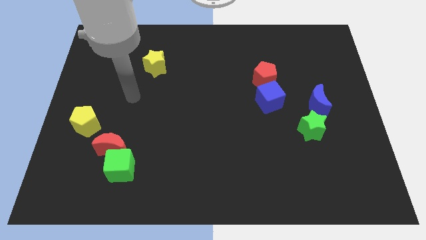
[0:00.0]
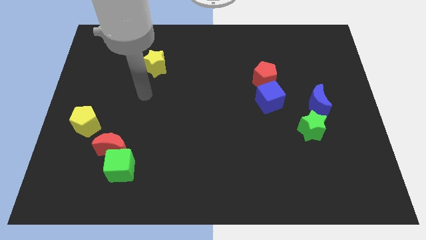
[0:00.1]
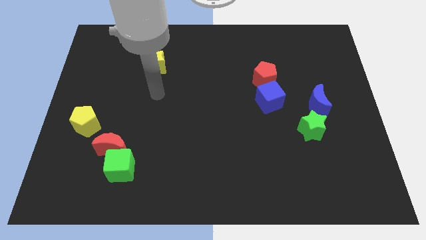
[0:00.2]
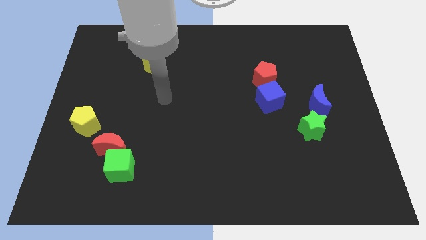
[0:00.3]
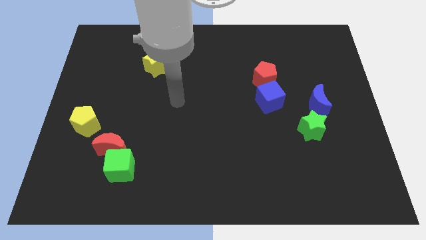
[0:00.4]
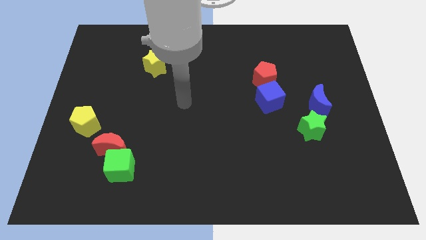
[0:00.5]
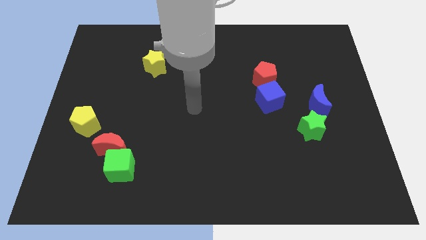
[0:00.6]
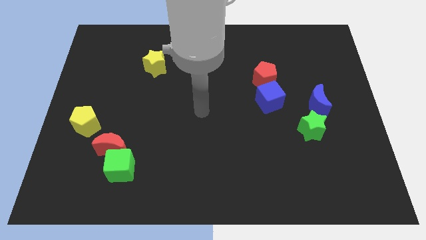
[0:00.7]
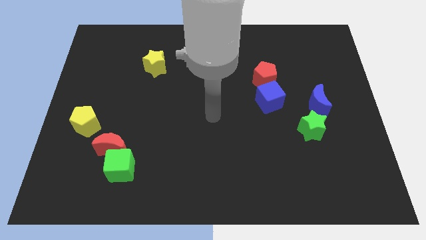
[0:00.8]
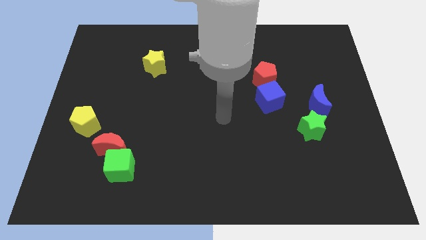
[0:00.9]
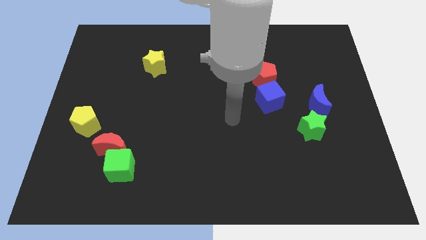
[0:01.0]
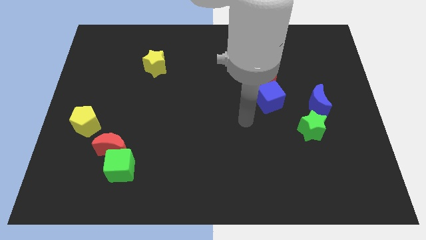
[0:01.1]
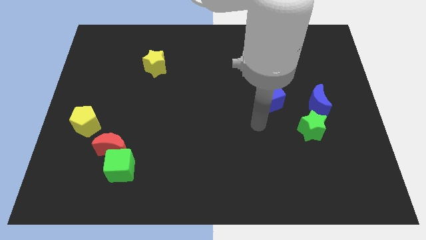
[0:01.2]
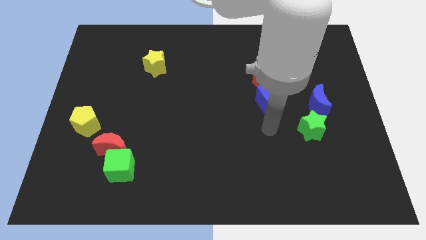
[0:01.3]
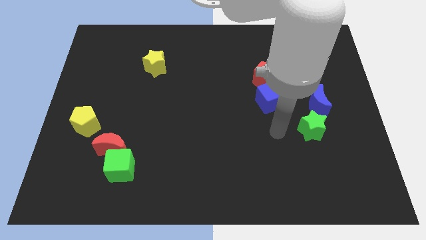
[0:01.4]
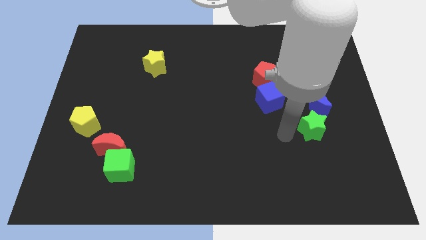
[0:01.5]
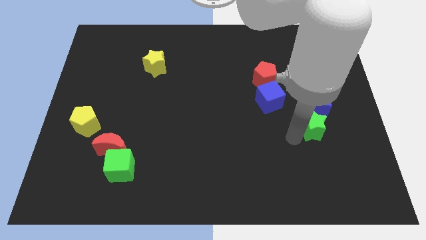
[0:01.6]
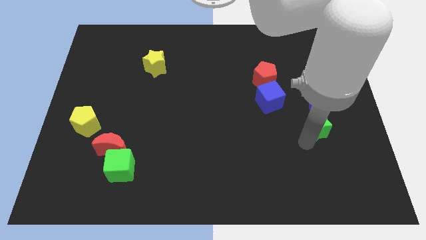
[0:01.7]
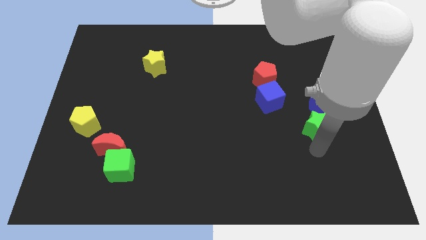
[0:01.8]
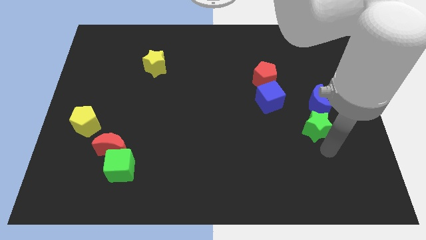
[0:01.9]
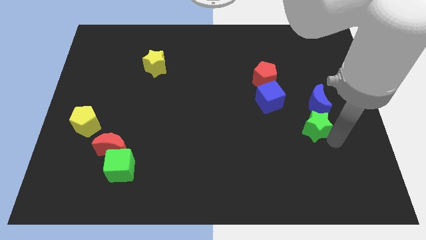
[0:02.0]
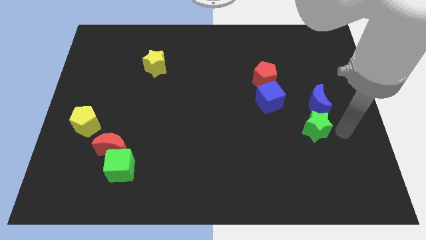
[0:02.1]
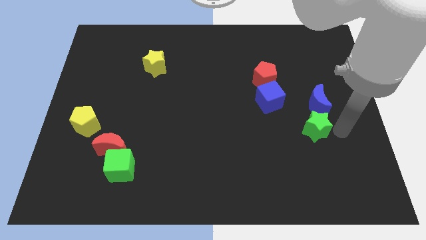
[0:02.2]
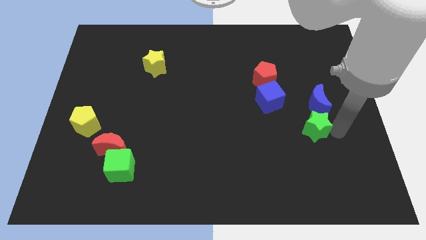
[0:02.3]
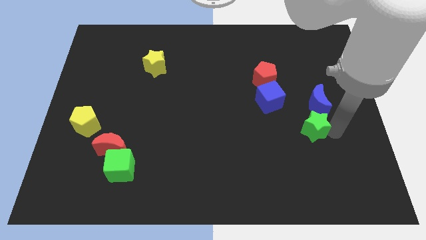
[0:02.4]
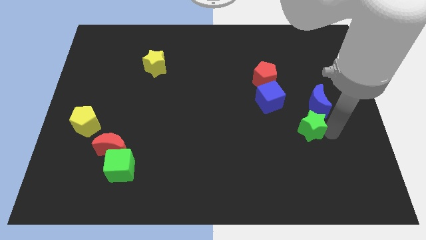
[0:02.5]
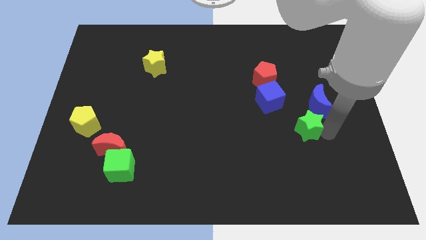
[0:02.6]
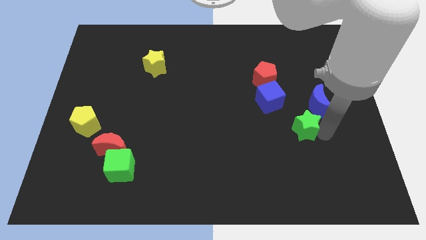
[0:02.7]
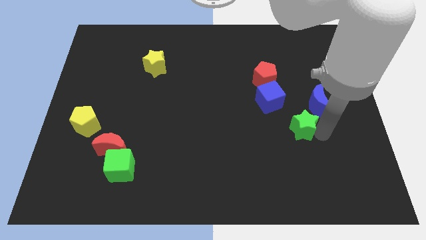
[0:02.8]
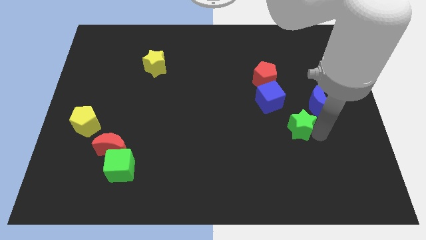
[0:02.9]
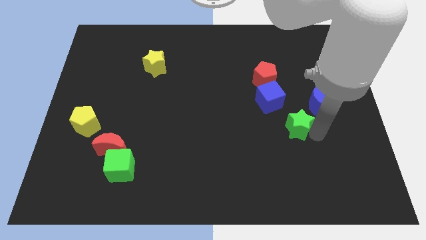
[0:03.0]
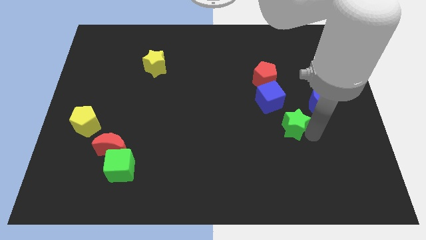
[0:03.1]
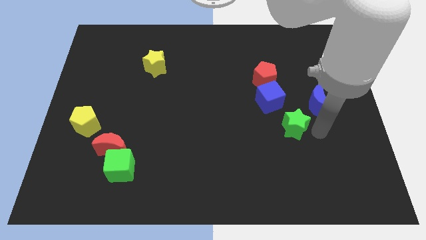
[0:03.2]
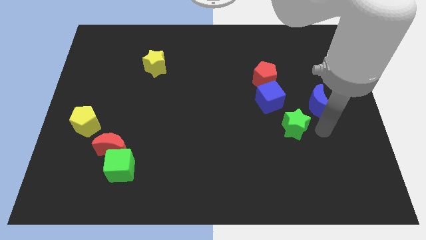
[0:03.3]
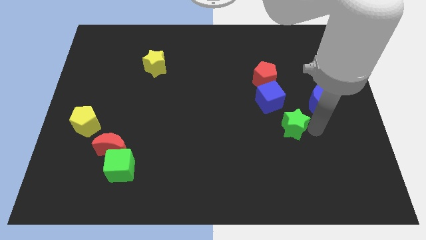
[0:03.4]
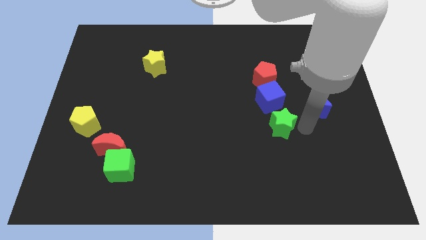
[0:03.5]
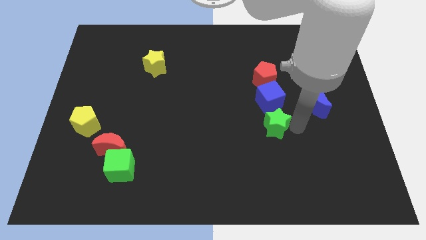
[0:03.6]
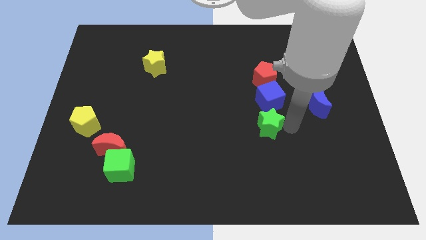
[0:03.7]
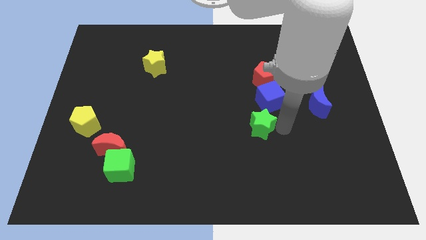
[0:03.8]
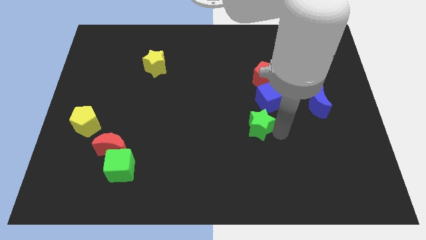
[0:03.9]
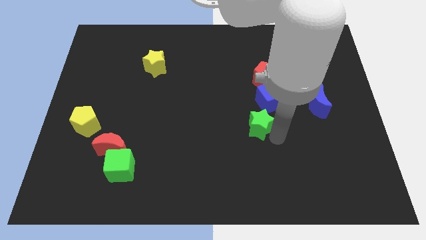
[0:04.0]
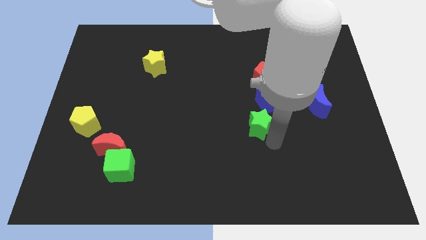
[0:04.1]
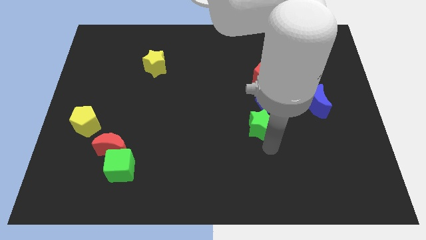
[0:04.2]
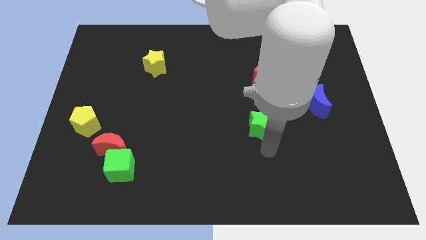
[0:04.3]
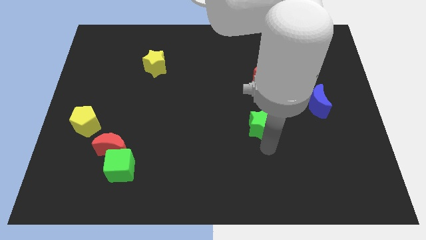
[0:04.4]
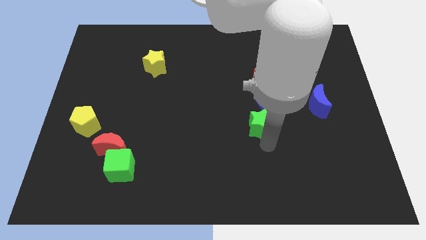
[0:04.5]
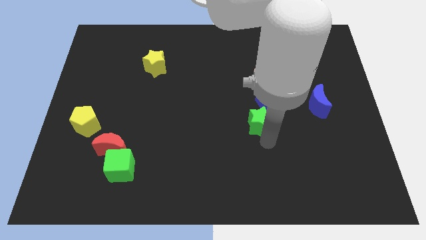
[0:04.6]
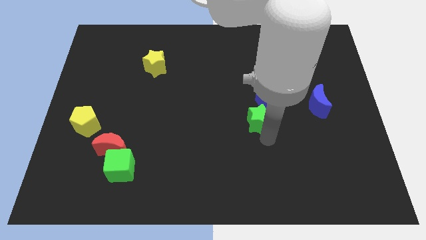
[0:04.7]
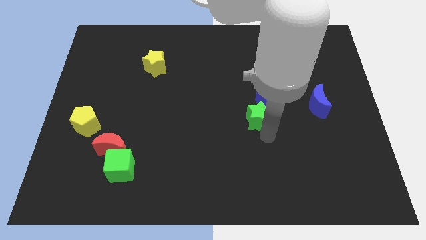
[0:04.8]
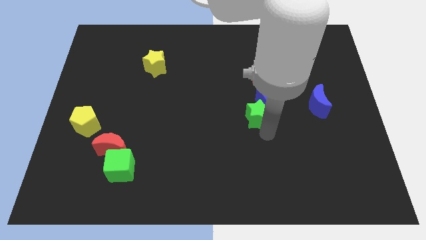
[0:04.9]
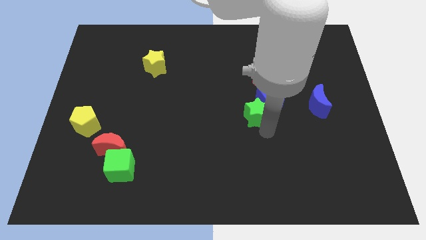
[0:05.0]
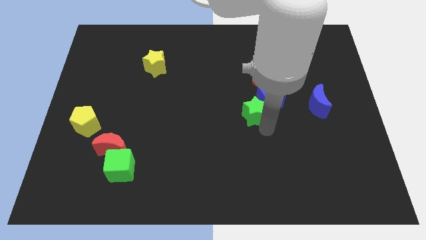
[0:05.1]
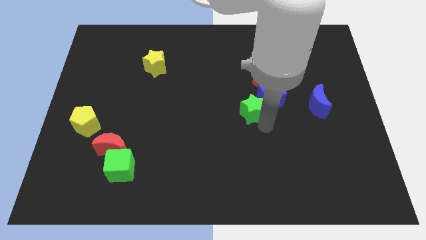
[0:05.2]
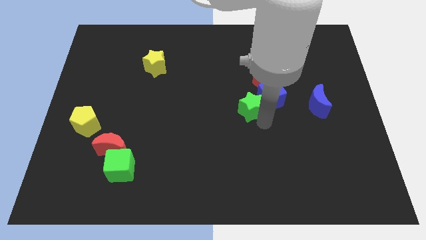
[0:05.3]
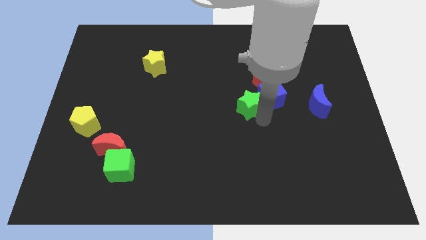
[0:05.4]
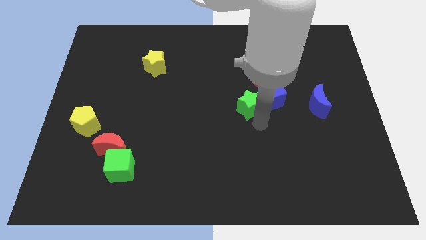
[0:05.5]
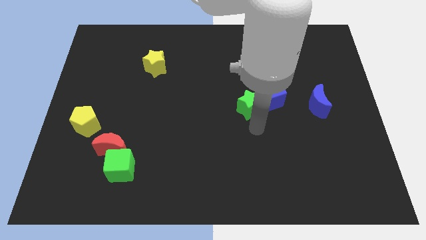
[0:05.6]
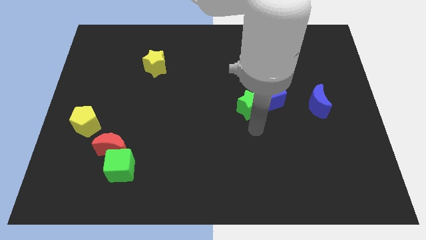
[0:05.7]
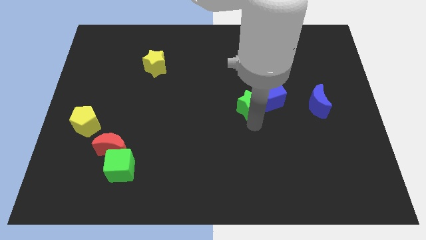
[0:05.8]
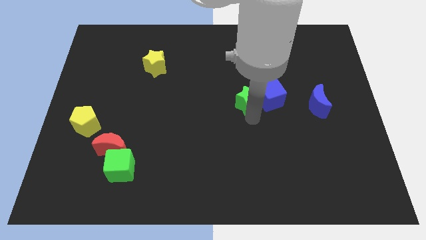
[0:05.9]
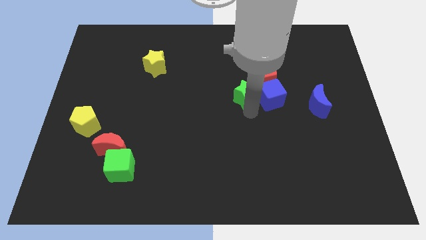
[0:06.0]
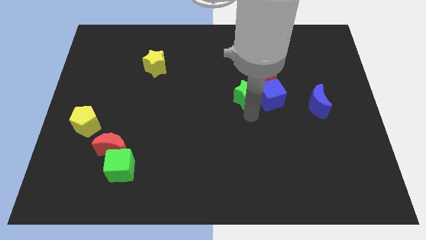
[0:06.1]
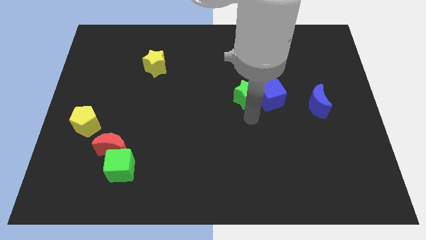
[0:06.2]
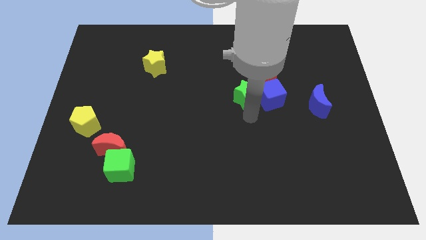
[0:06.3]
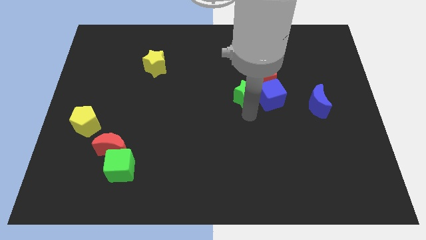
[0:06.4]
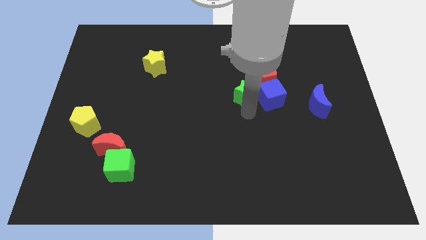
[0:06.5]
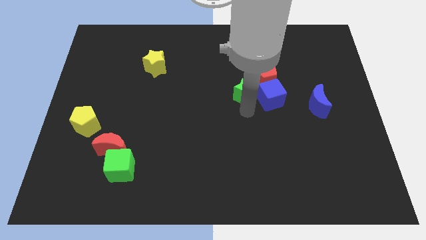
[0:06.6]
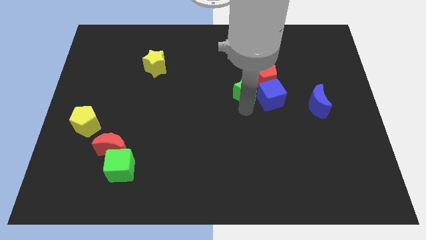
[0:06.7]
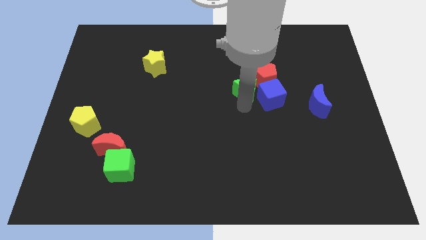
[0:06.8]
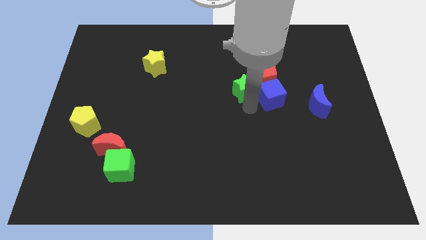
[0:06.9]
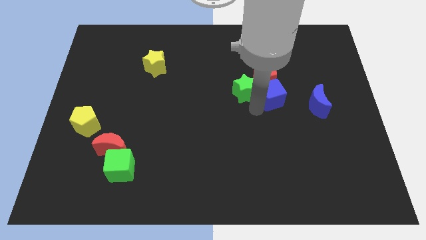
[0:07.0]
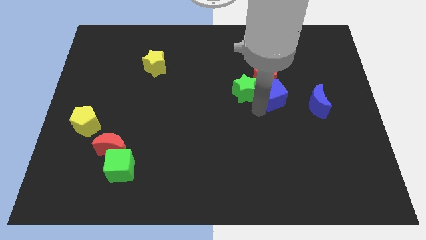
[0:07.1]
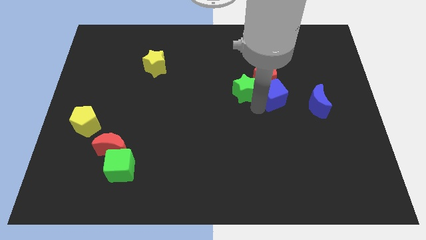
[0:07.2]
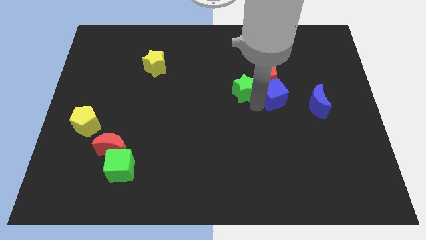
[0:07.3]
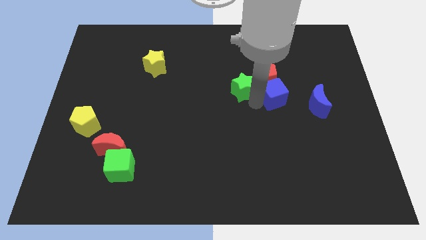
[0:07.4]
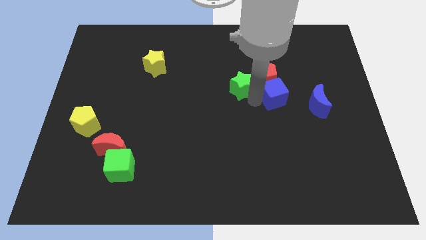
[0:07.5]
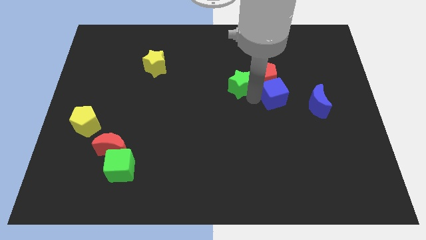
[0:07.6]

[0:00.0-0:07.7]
push the green star upwards and then to the left

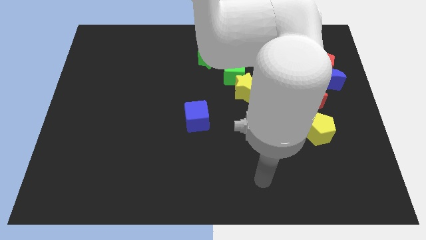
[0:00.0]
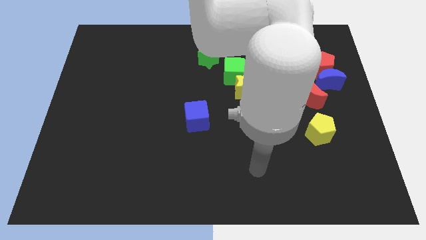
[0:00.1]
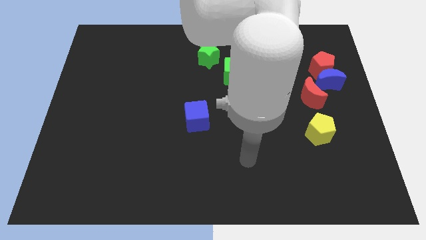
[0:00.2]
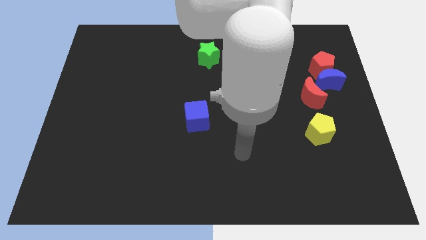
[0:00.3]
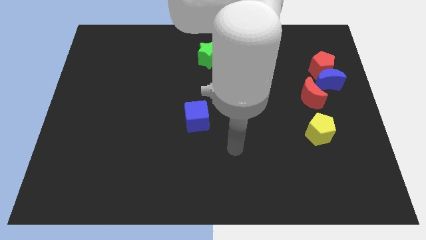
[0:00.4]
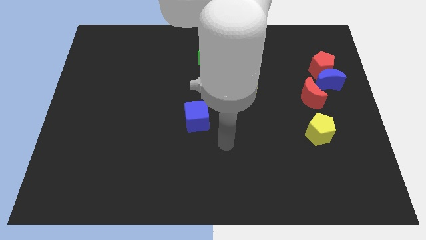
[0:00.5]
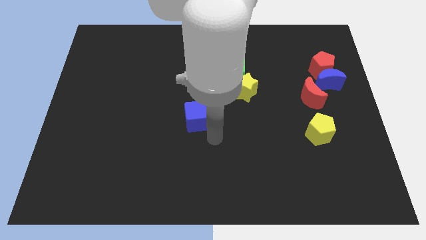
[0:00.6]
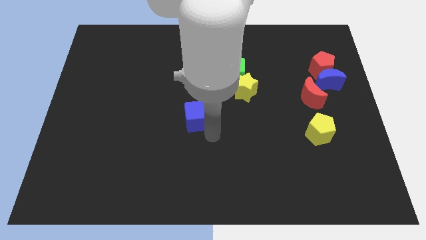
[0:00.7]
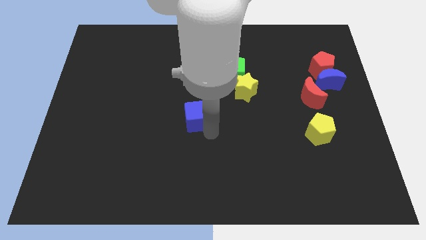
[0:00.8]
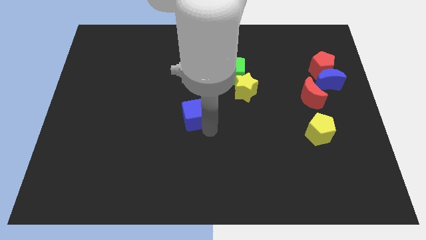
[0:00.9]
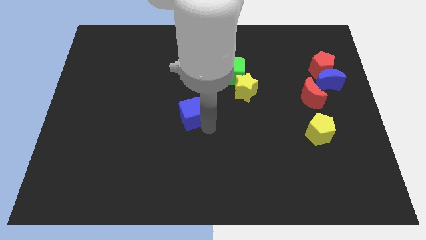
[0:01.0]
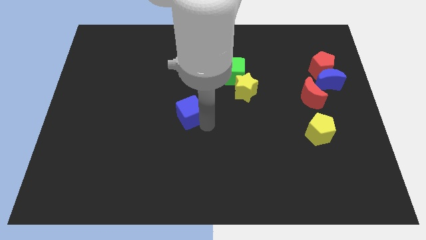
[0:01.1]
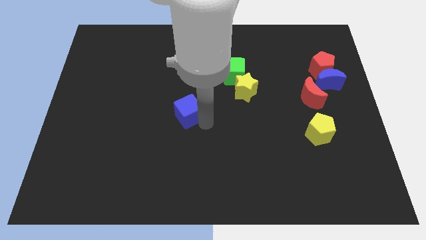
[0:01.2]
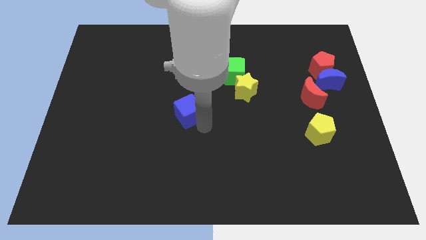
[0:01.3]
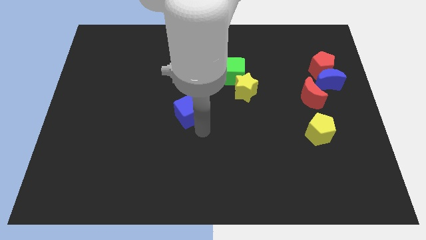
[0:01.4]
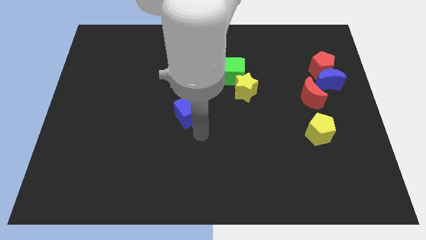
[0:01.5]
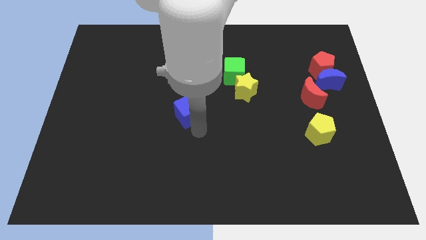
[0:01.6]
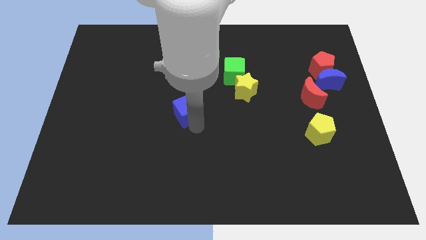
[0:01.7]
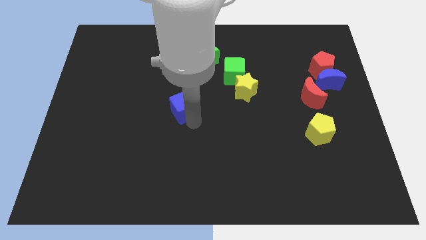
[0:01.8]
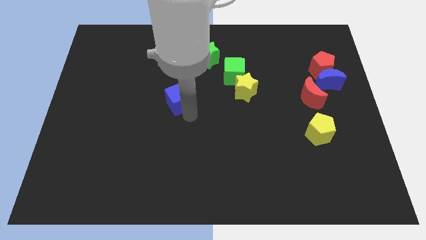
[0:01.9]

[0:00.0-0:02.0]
push the blue cube a bit up and then to the left
